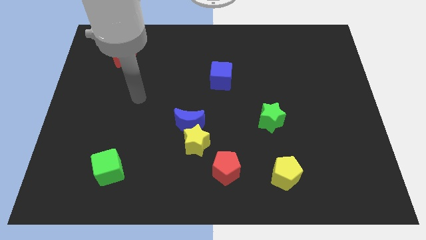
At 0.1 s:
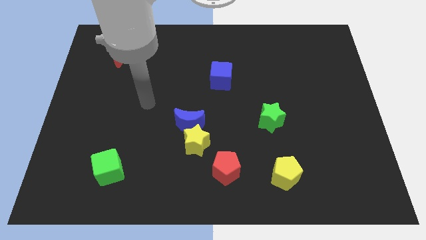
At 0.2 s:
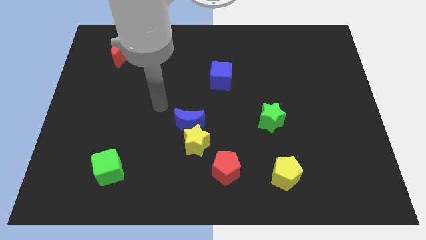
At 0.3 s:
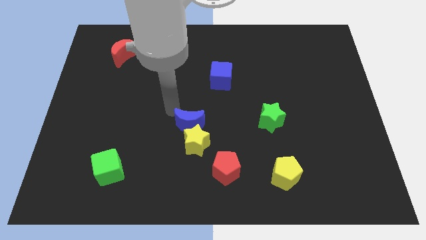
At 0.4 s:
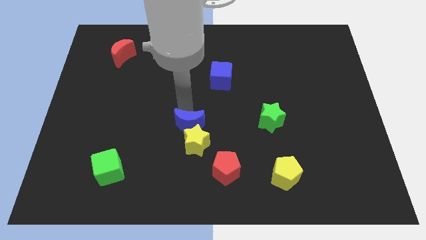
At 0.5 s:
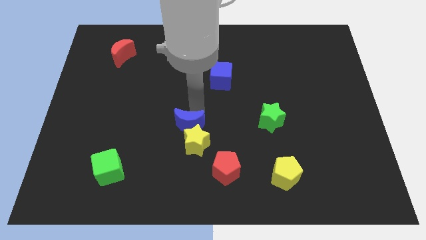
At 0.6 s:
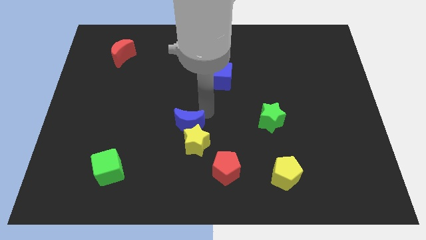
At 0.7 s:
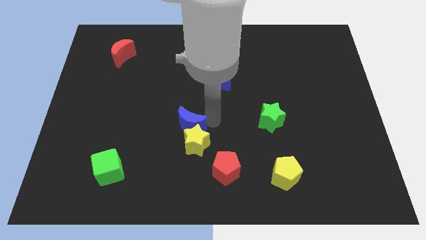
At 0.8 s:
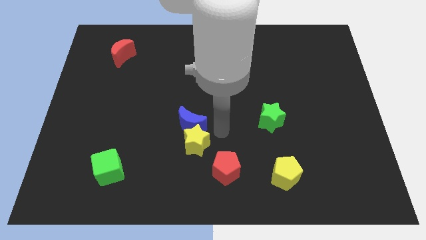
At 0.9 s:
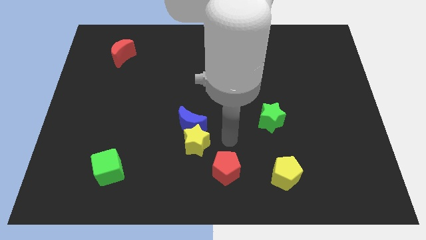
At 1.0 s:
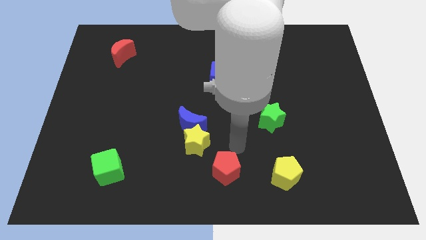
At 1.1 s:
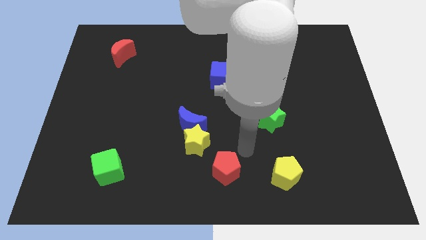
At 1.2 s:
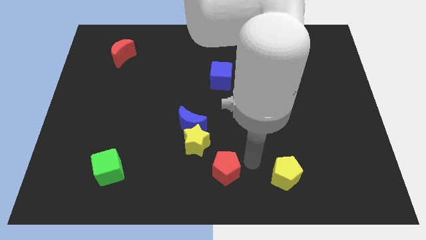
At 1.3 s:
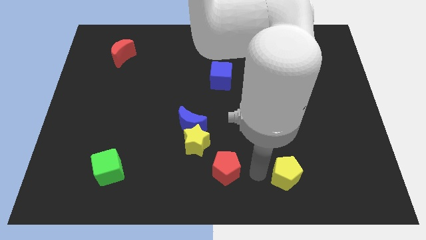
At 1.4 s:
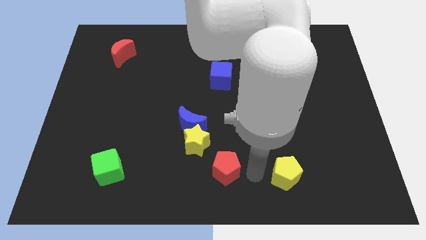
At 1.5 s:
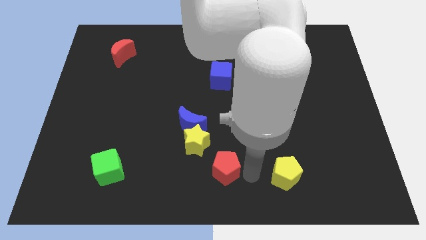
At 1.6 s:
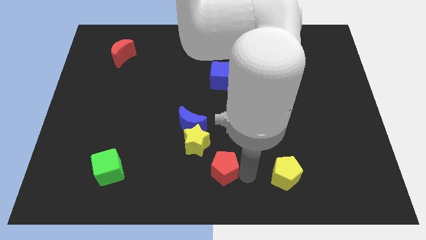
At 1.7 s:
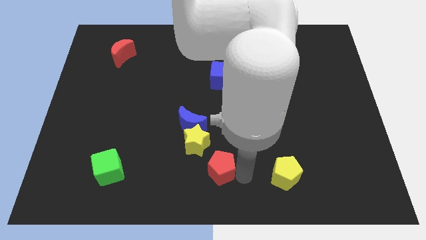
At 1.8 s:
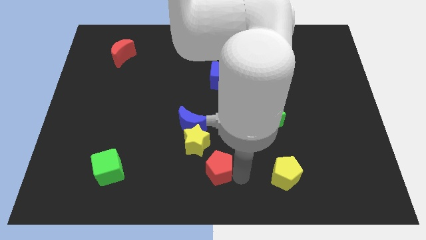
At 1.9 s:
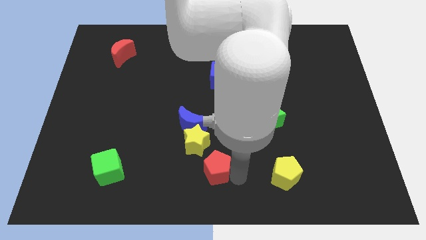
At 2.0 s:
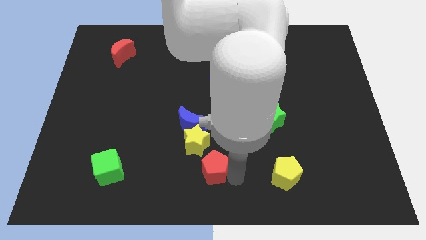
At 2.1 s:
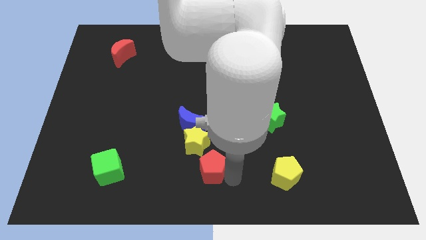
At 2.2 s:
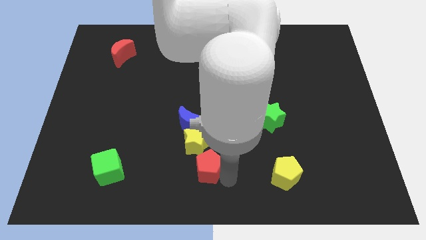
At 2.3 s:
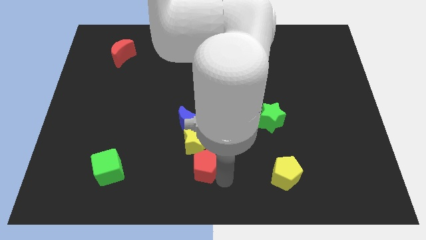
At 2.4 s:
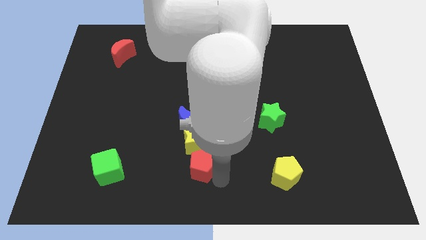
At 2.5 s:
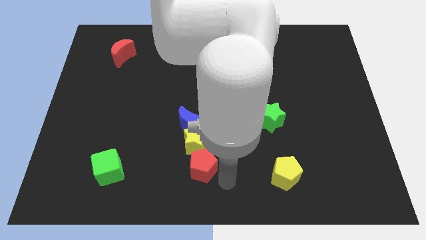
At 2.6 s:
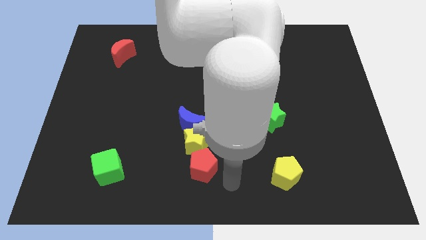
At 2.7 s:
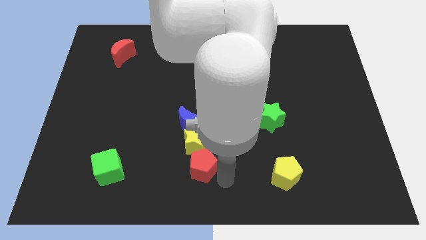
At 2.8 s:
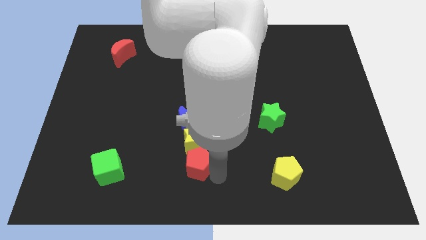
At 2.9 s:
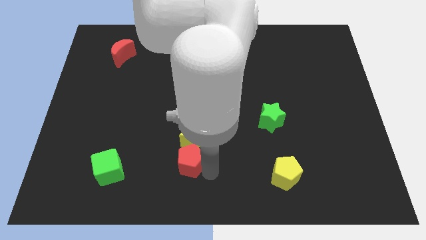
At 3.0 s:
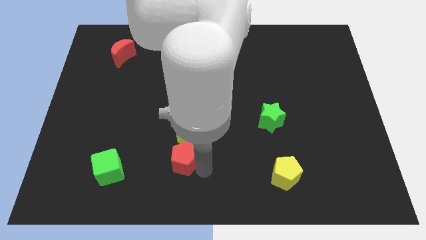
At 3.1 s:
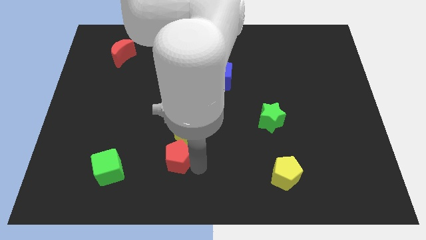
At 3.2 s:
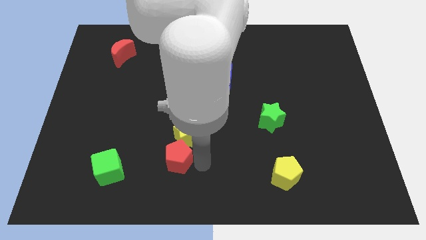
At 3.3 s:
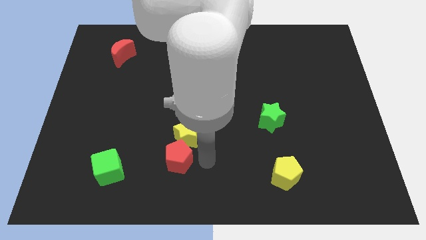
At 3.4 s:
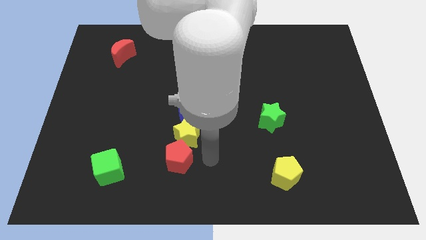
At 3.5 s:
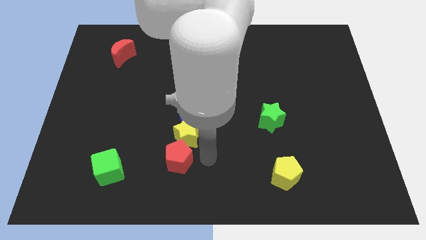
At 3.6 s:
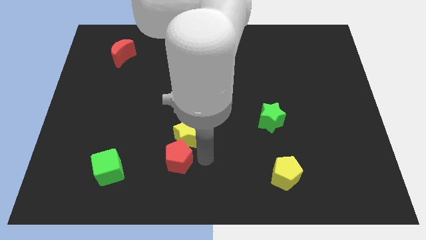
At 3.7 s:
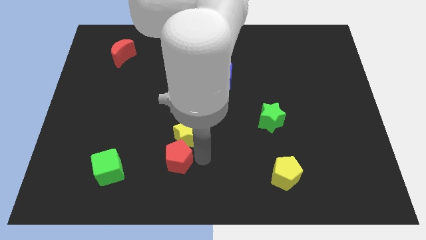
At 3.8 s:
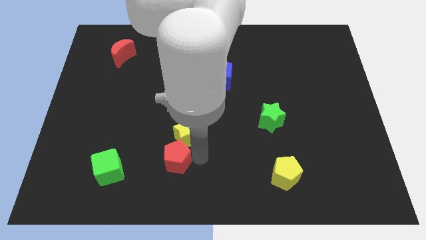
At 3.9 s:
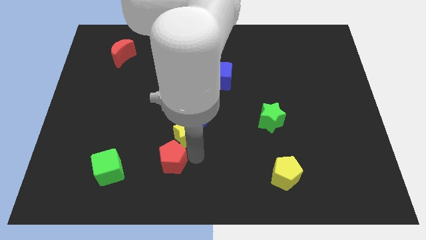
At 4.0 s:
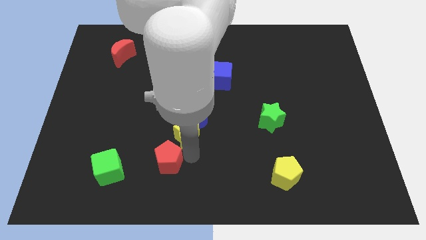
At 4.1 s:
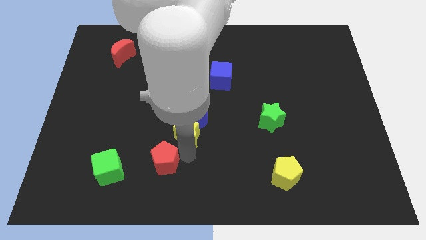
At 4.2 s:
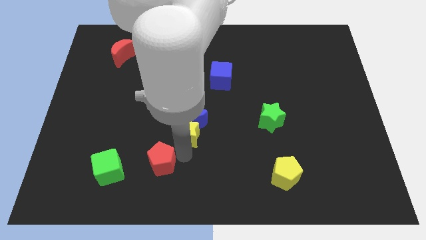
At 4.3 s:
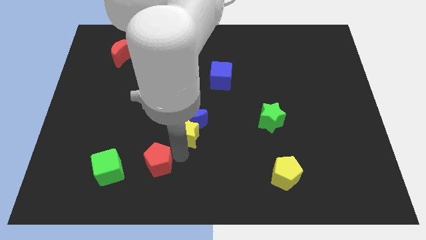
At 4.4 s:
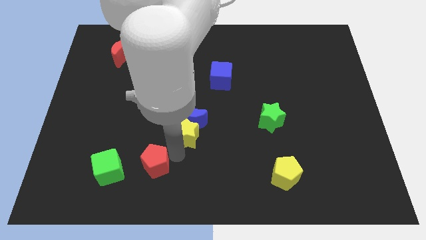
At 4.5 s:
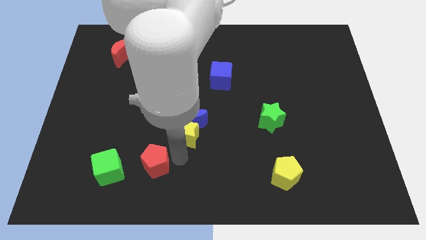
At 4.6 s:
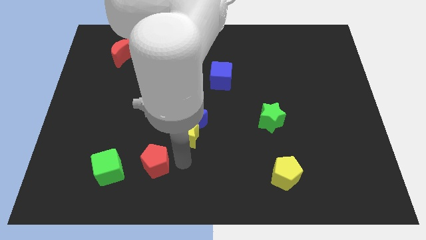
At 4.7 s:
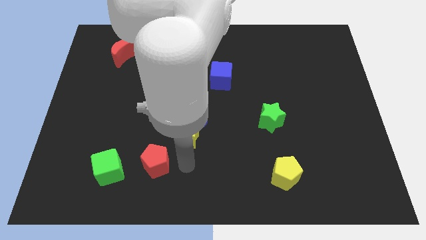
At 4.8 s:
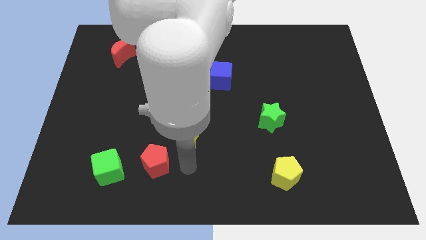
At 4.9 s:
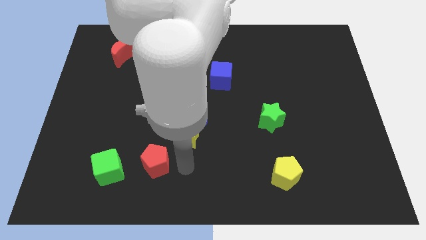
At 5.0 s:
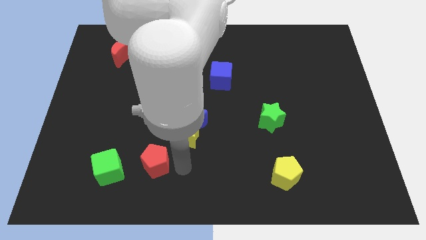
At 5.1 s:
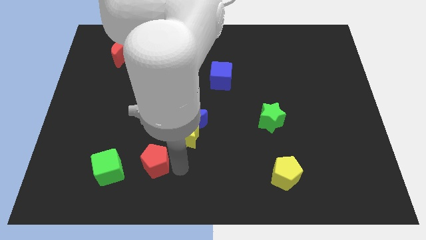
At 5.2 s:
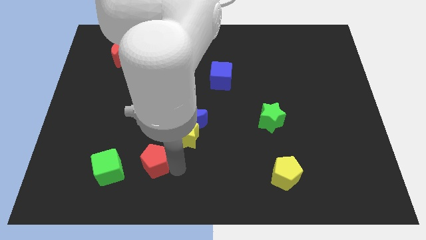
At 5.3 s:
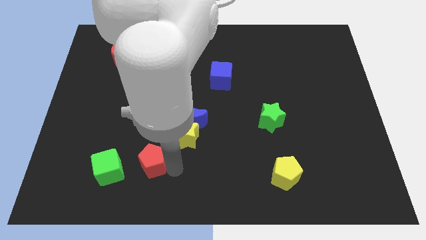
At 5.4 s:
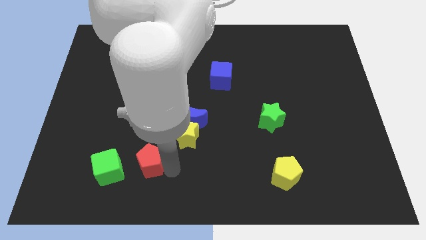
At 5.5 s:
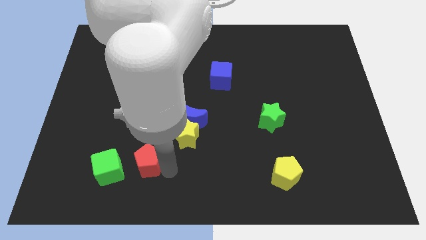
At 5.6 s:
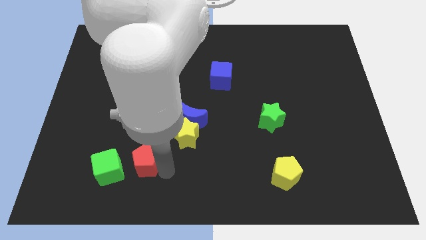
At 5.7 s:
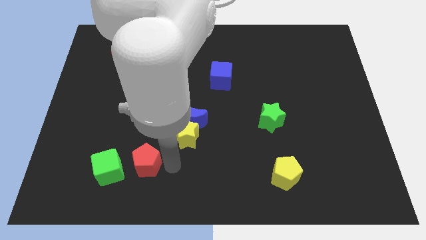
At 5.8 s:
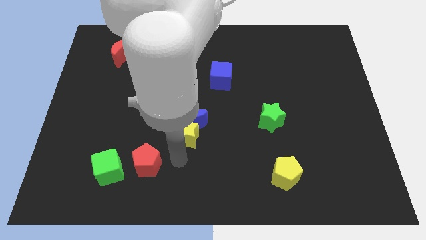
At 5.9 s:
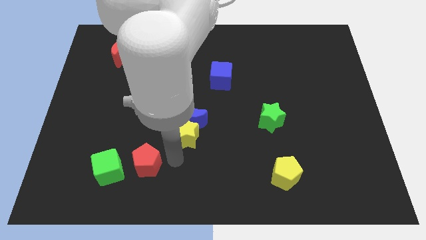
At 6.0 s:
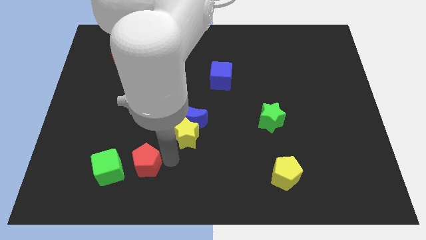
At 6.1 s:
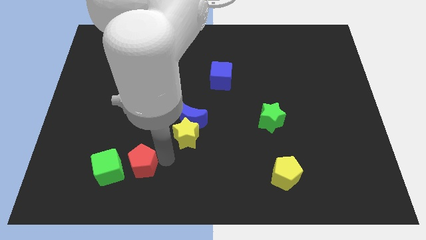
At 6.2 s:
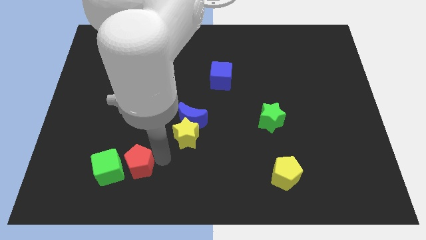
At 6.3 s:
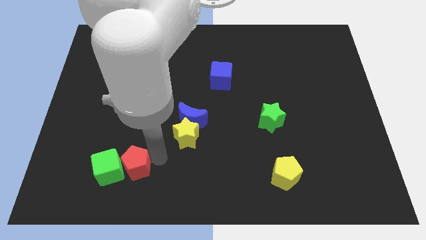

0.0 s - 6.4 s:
put the red pentagon towards the green cube

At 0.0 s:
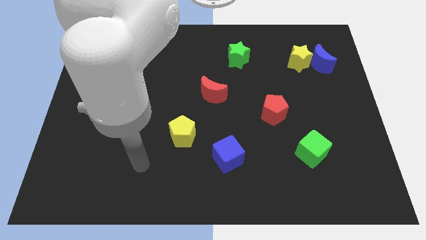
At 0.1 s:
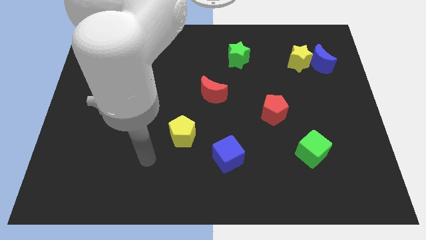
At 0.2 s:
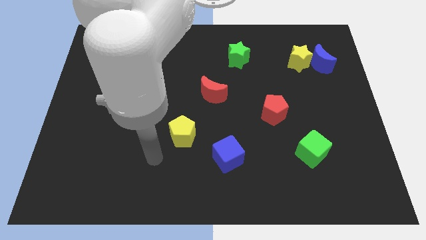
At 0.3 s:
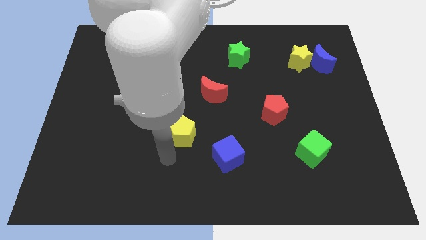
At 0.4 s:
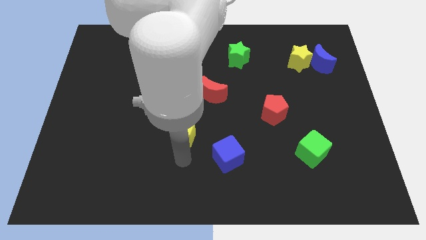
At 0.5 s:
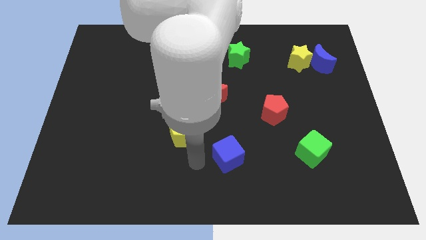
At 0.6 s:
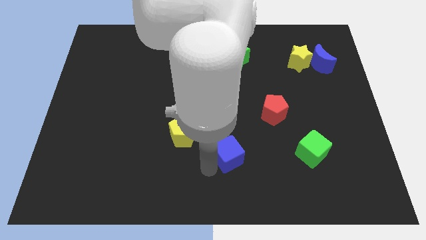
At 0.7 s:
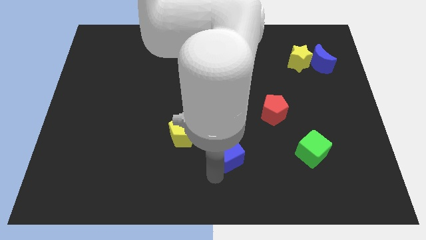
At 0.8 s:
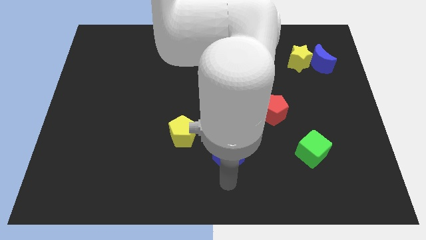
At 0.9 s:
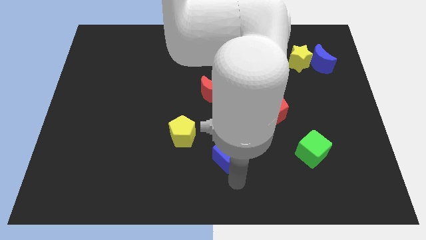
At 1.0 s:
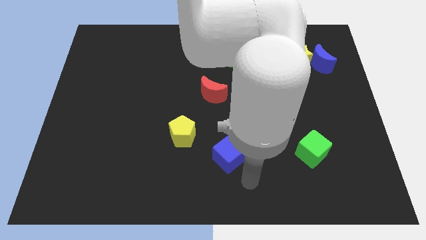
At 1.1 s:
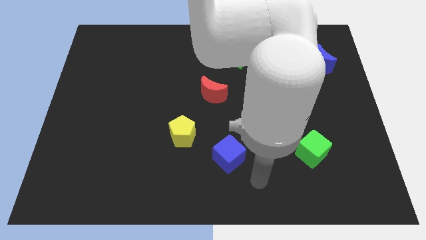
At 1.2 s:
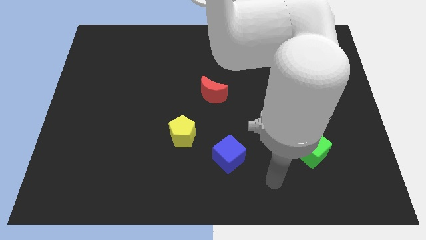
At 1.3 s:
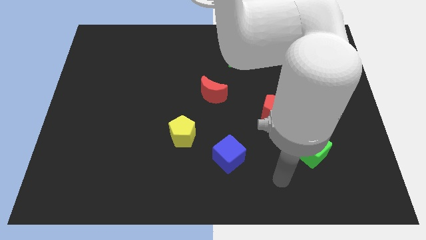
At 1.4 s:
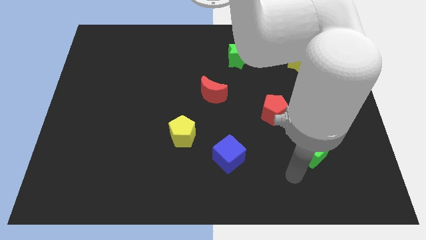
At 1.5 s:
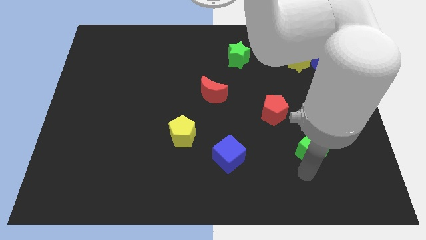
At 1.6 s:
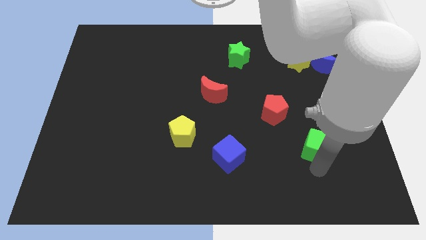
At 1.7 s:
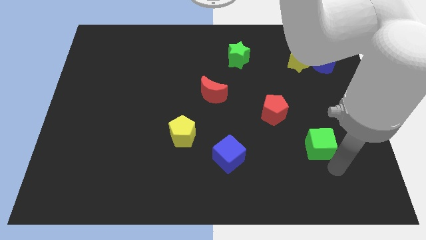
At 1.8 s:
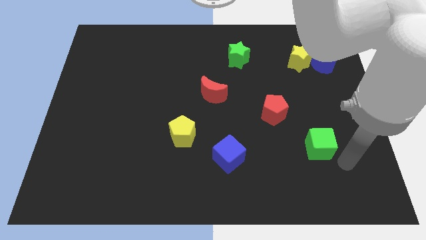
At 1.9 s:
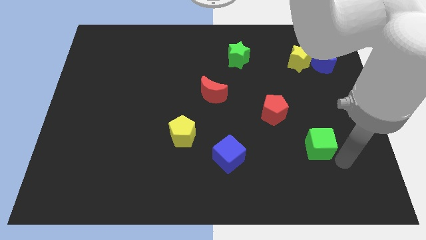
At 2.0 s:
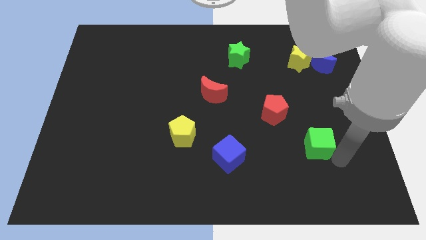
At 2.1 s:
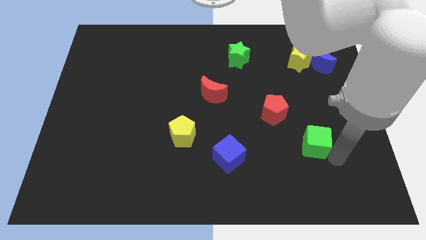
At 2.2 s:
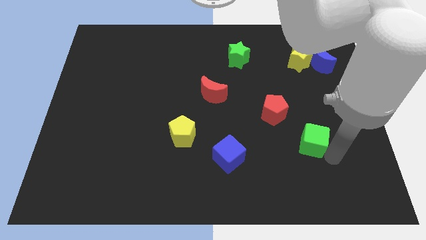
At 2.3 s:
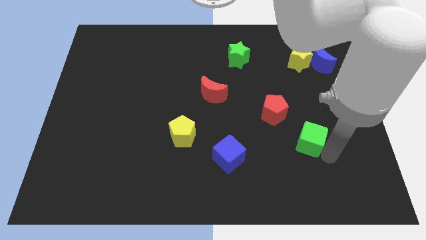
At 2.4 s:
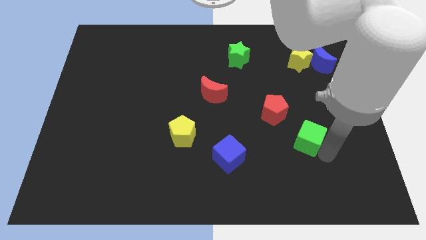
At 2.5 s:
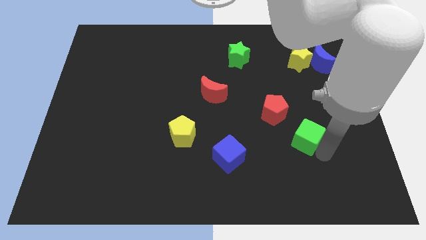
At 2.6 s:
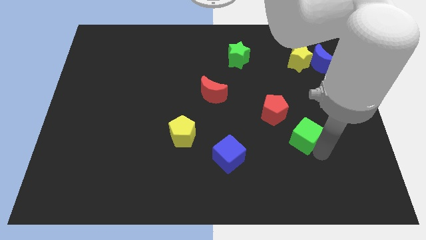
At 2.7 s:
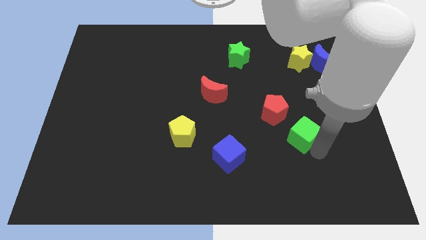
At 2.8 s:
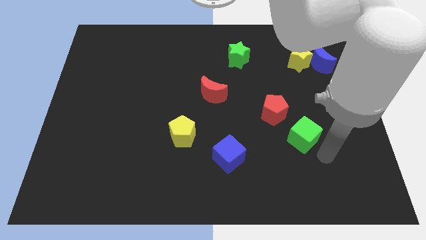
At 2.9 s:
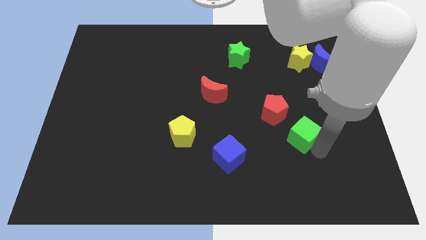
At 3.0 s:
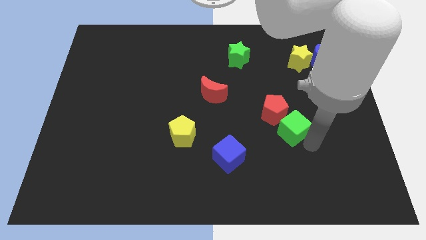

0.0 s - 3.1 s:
push the green cube close to the red pentagon
